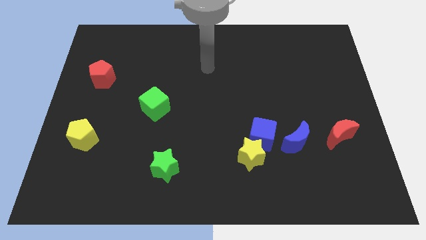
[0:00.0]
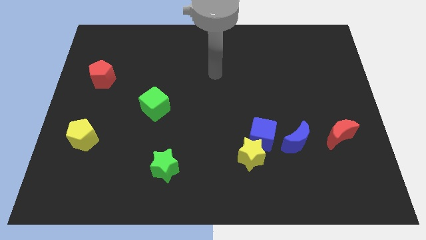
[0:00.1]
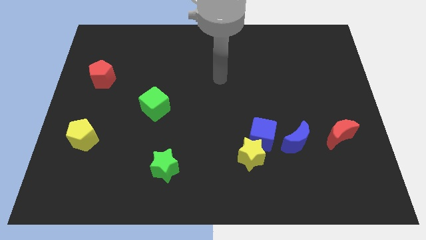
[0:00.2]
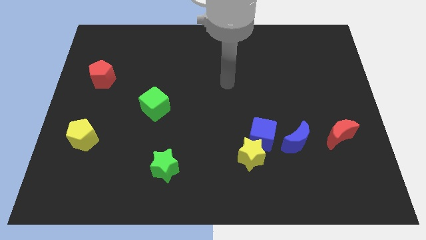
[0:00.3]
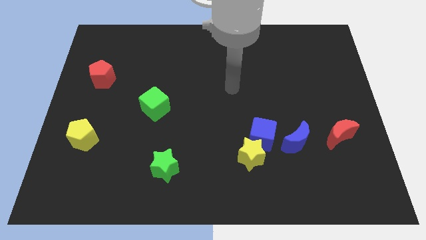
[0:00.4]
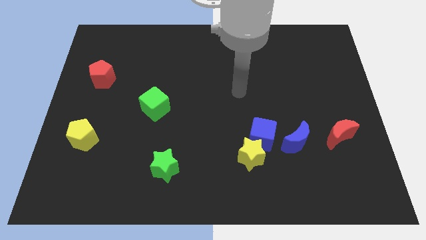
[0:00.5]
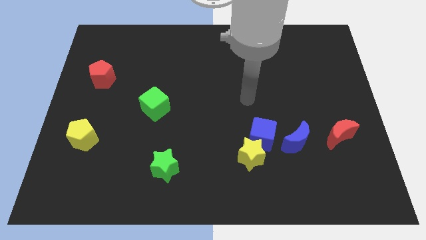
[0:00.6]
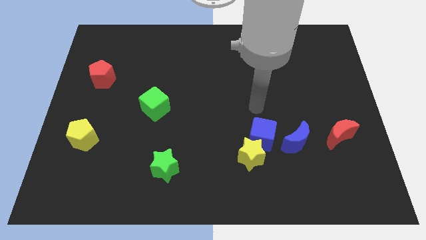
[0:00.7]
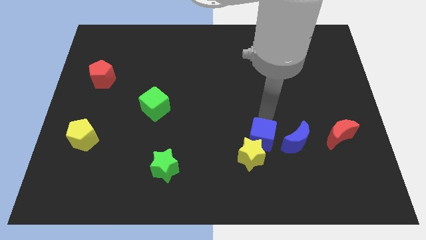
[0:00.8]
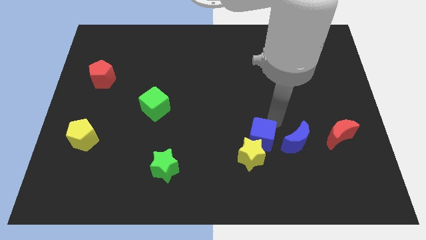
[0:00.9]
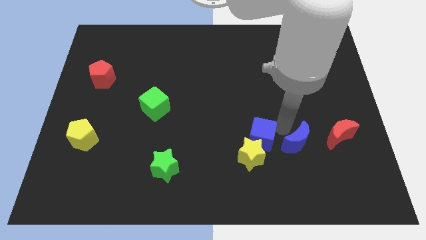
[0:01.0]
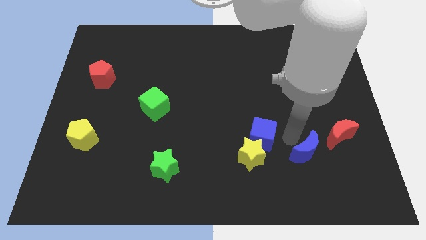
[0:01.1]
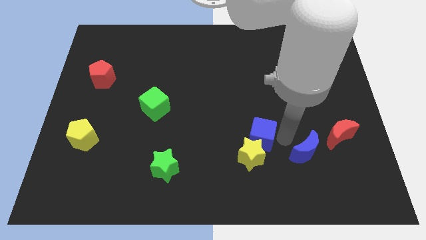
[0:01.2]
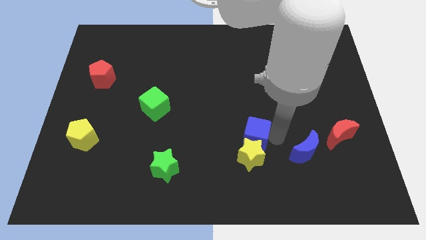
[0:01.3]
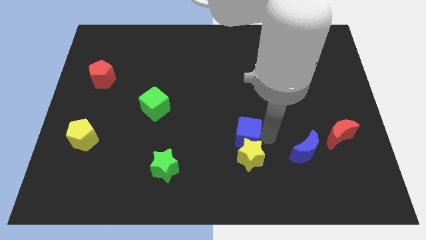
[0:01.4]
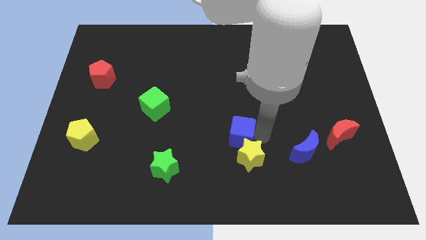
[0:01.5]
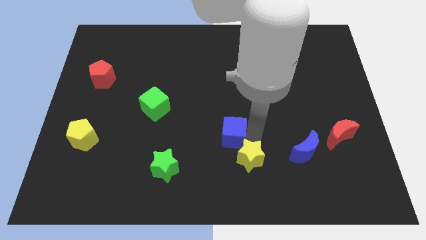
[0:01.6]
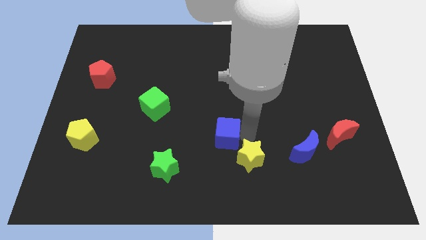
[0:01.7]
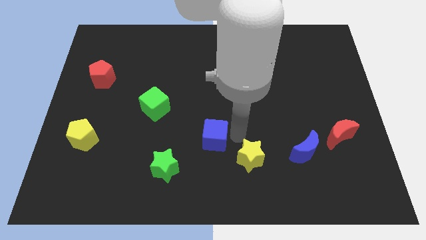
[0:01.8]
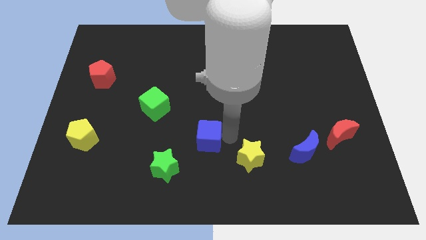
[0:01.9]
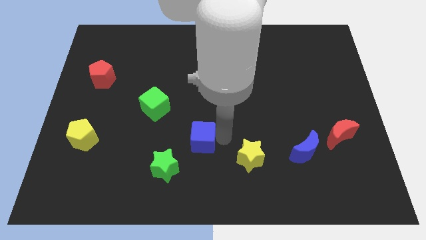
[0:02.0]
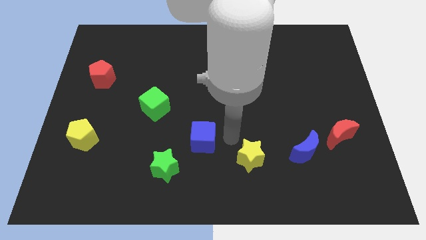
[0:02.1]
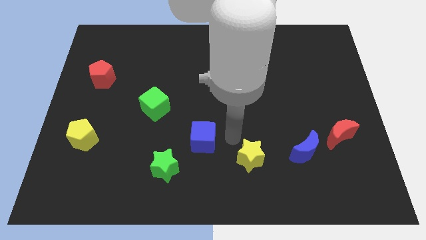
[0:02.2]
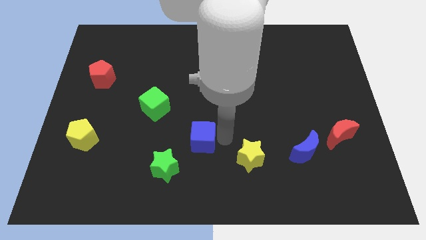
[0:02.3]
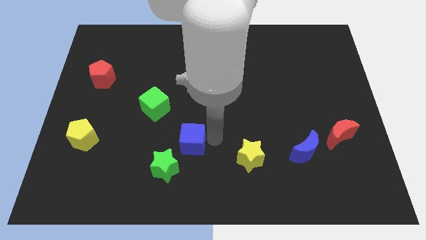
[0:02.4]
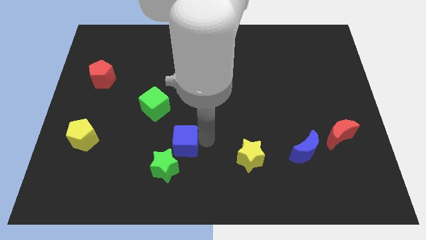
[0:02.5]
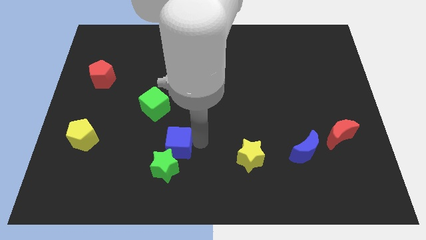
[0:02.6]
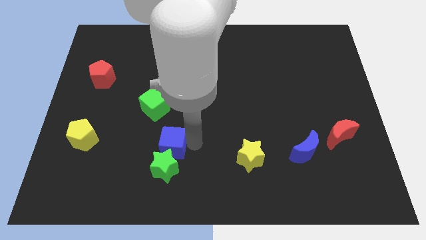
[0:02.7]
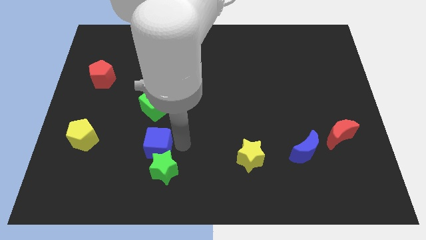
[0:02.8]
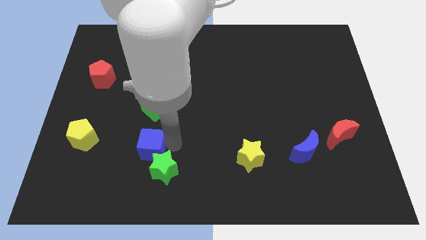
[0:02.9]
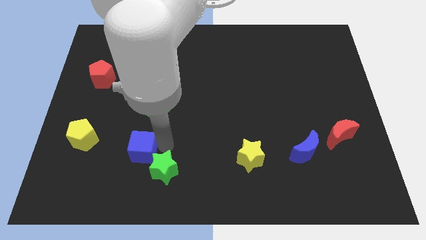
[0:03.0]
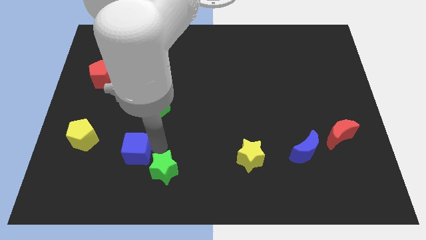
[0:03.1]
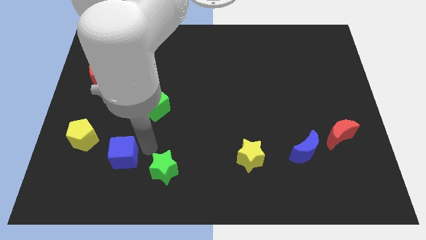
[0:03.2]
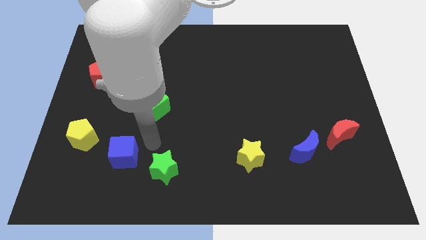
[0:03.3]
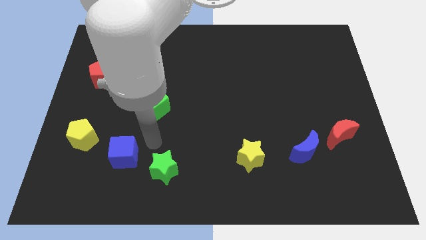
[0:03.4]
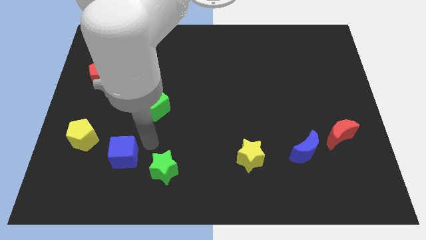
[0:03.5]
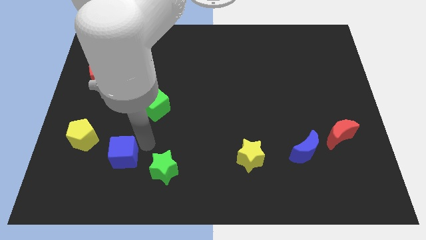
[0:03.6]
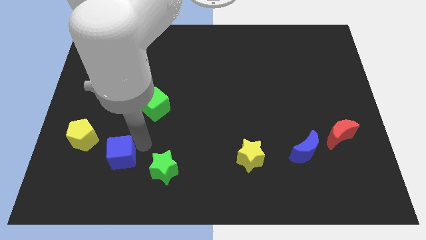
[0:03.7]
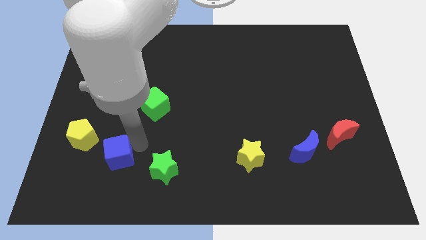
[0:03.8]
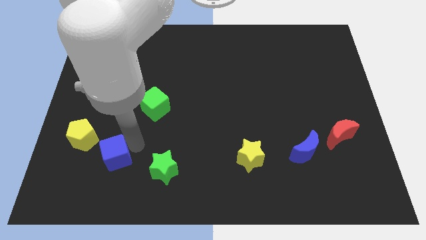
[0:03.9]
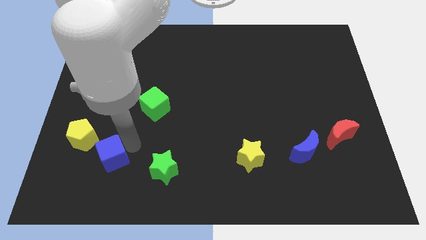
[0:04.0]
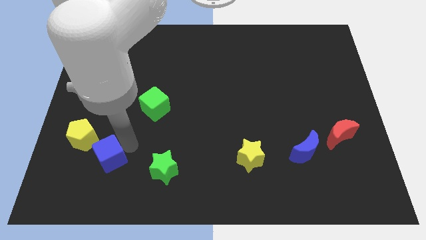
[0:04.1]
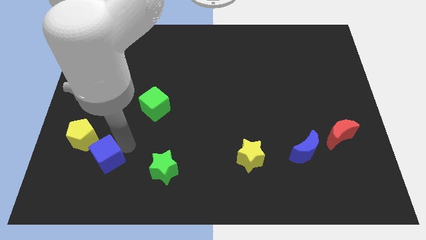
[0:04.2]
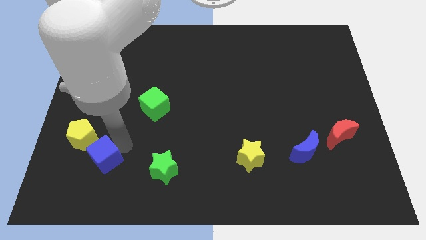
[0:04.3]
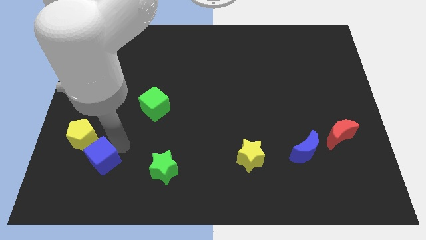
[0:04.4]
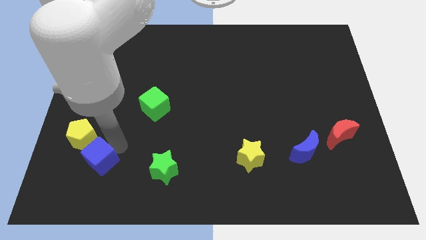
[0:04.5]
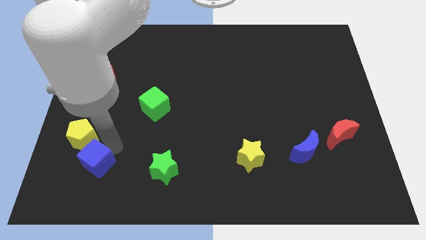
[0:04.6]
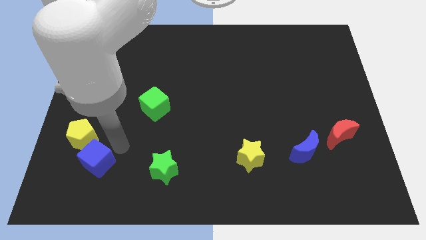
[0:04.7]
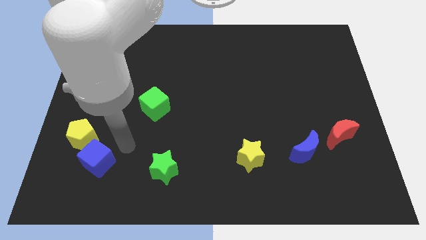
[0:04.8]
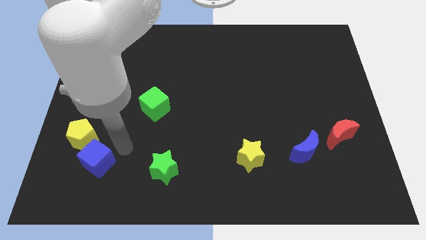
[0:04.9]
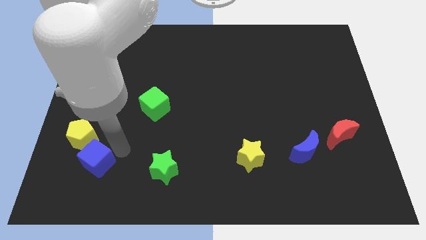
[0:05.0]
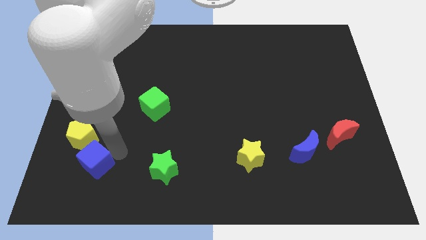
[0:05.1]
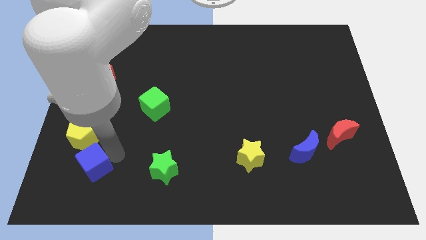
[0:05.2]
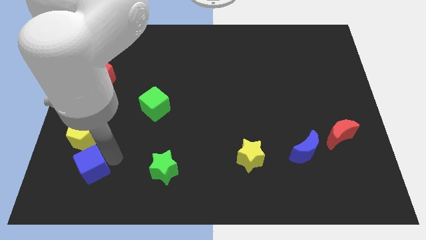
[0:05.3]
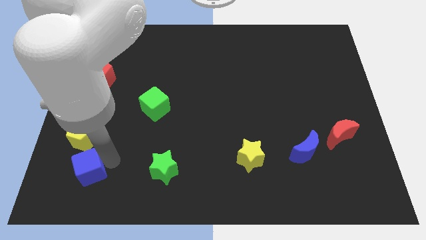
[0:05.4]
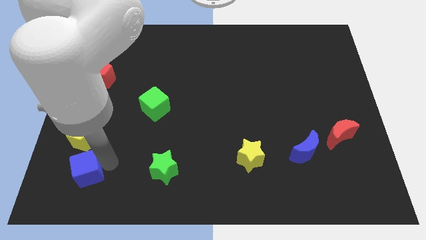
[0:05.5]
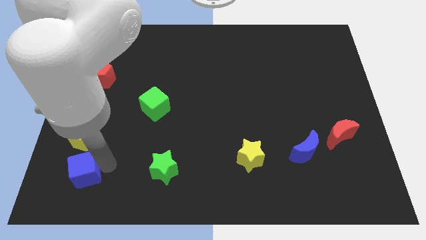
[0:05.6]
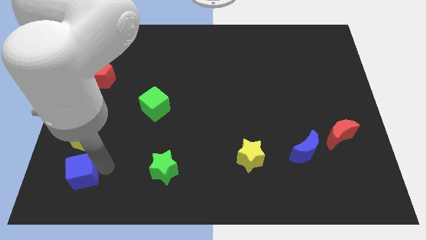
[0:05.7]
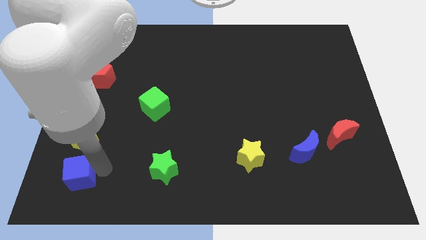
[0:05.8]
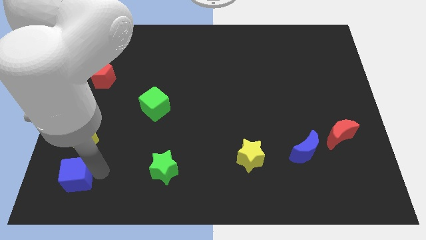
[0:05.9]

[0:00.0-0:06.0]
push the blue cube to the lower left corner

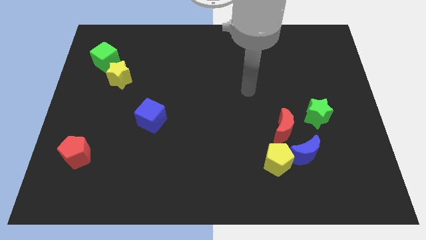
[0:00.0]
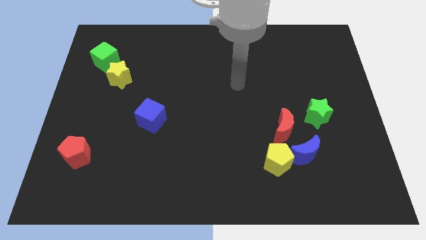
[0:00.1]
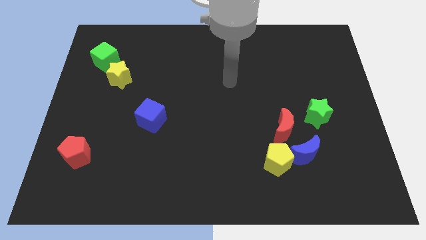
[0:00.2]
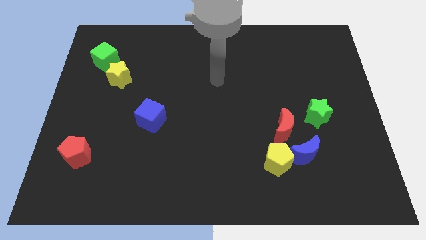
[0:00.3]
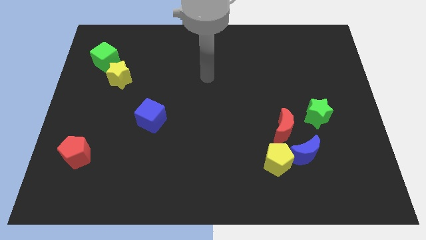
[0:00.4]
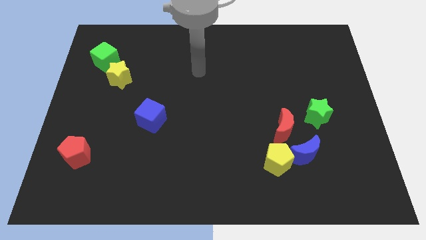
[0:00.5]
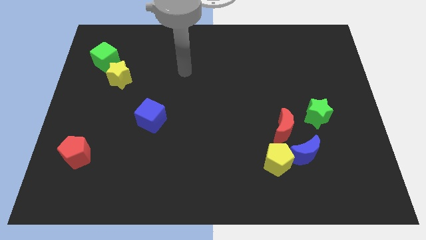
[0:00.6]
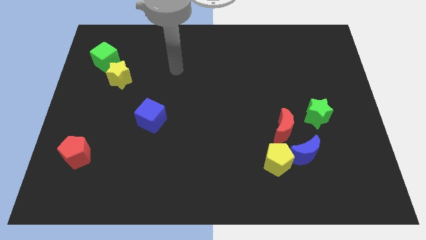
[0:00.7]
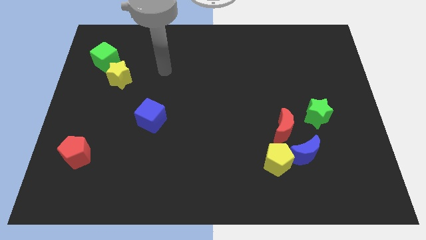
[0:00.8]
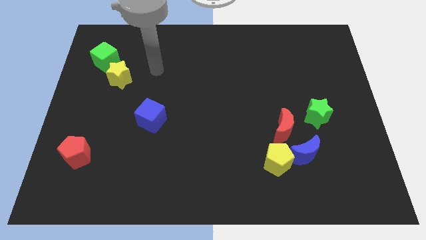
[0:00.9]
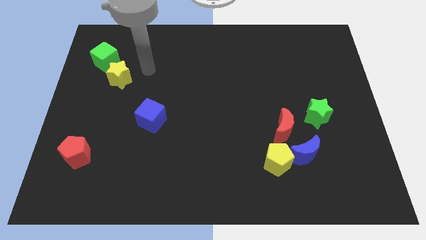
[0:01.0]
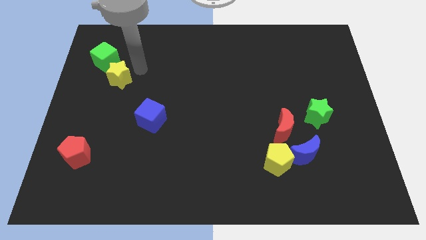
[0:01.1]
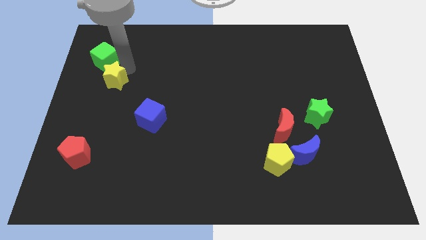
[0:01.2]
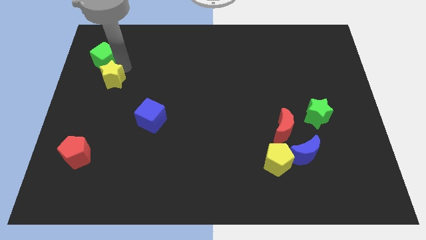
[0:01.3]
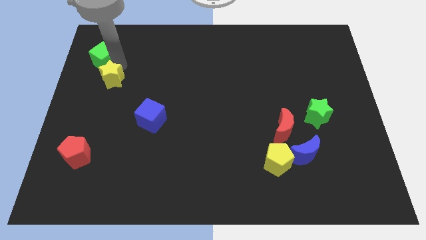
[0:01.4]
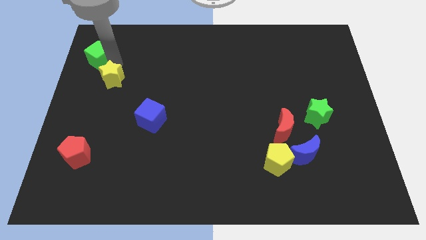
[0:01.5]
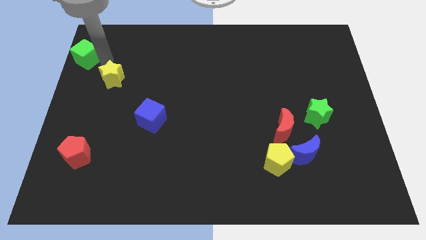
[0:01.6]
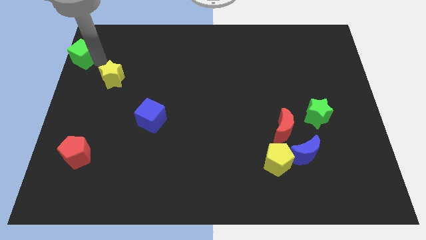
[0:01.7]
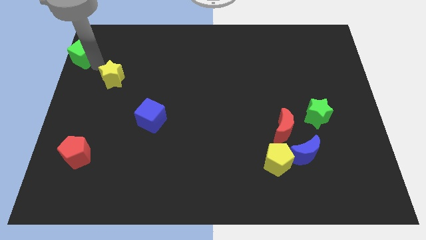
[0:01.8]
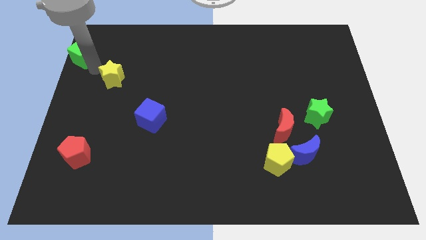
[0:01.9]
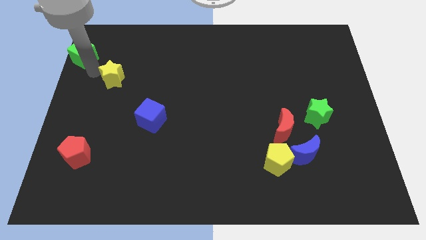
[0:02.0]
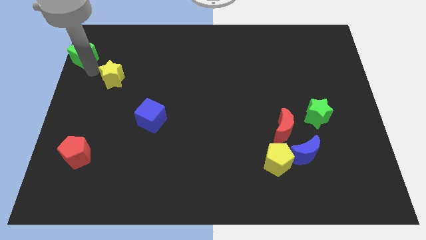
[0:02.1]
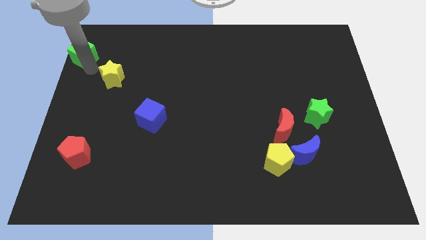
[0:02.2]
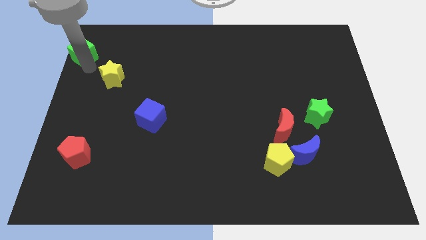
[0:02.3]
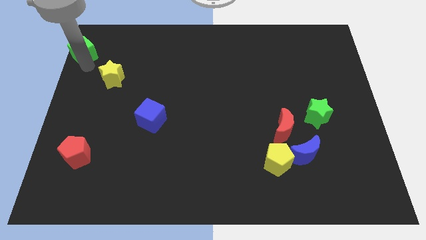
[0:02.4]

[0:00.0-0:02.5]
slide the green cube to the upper left corner
